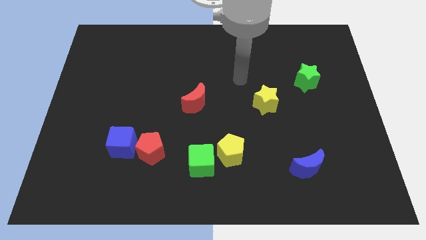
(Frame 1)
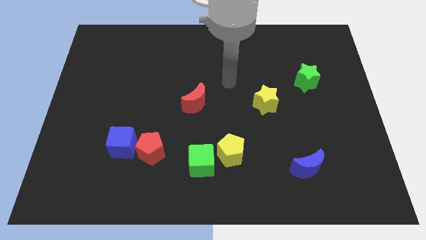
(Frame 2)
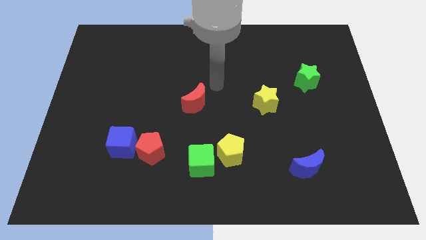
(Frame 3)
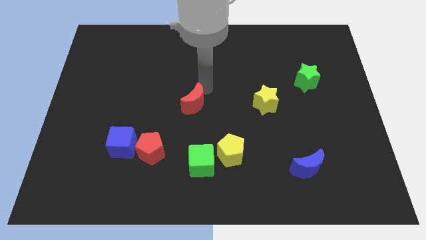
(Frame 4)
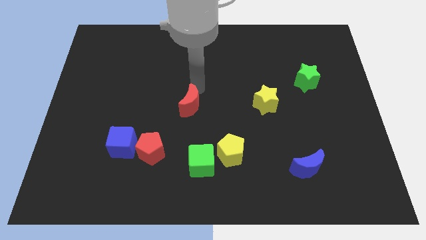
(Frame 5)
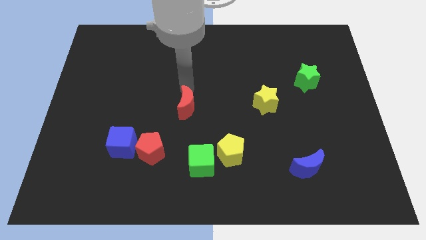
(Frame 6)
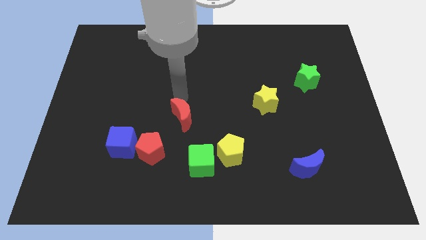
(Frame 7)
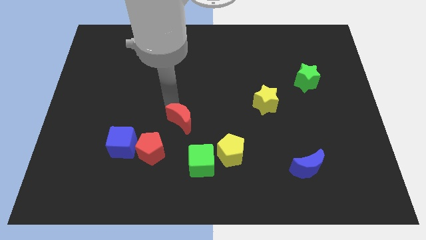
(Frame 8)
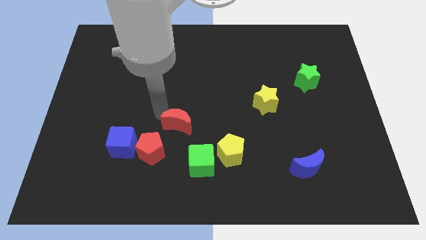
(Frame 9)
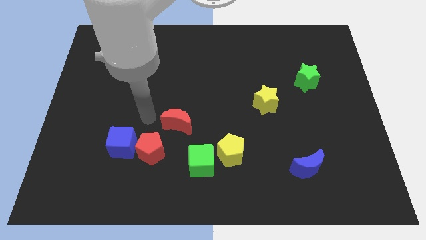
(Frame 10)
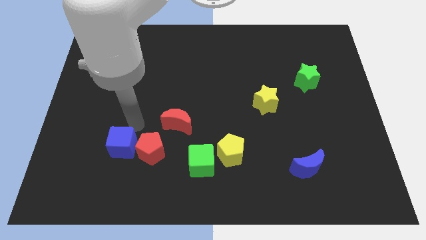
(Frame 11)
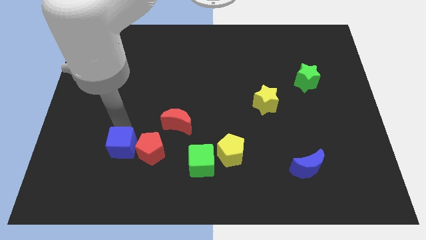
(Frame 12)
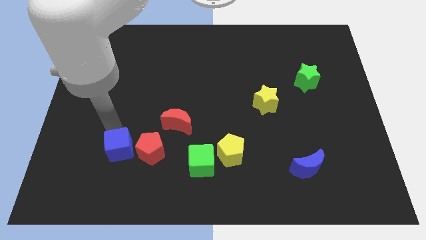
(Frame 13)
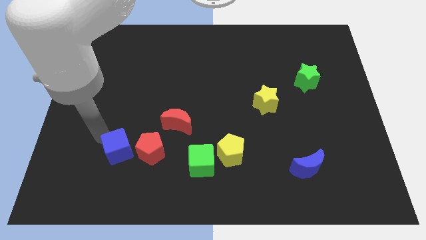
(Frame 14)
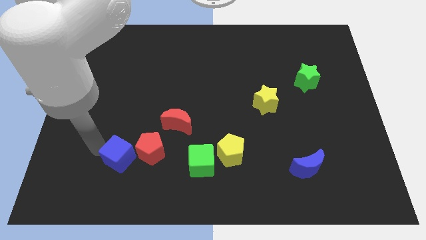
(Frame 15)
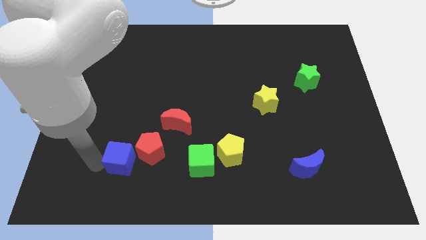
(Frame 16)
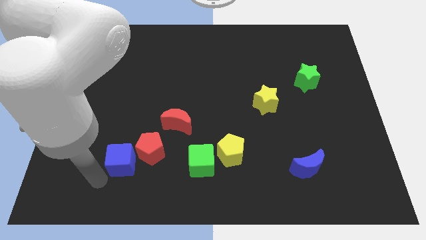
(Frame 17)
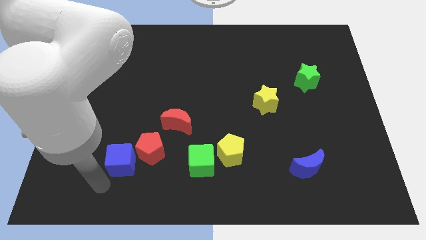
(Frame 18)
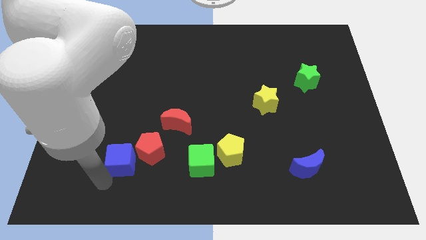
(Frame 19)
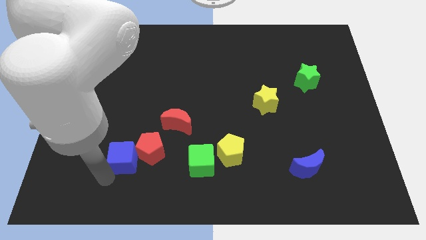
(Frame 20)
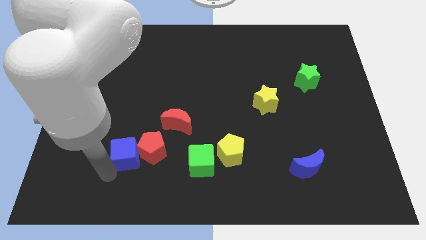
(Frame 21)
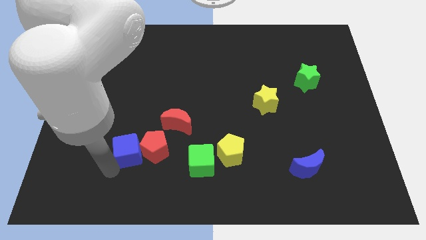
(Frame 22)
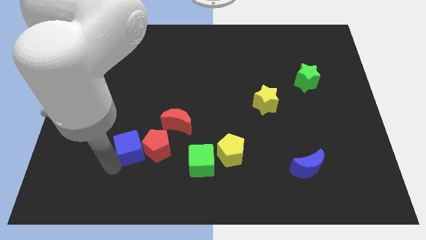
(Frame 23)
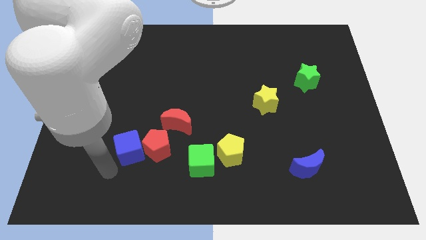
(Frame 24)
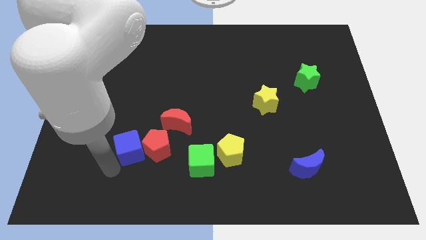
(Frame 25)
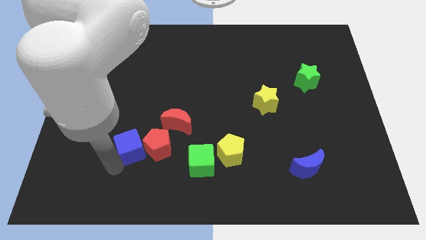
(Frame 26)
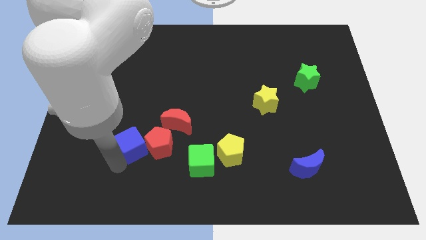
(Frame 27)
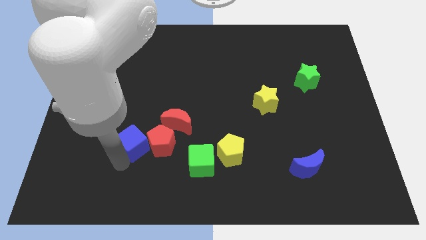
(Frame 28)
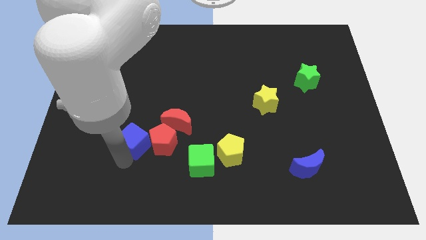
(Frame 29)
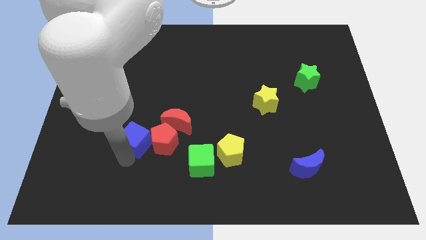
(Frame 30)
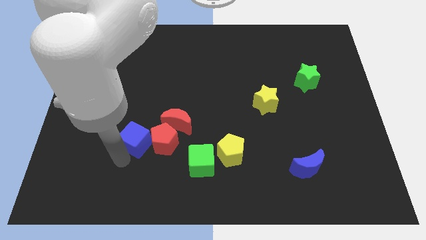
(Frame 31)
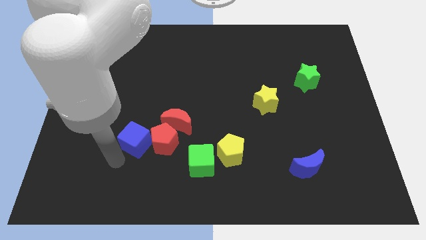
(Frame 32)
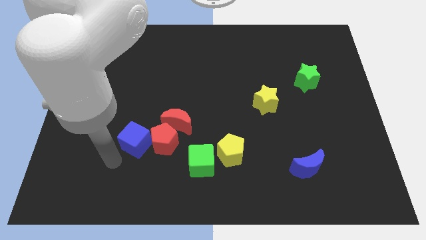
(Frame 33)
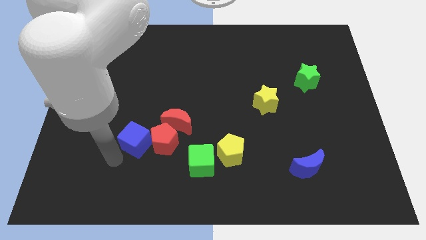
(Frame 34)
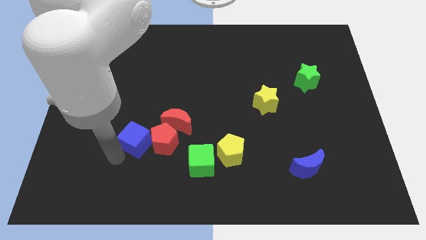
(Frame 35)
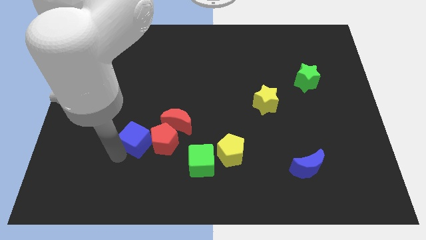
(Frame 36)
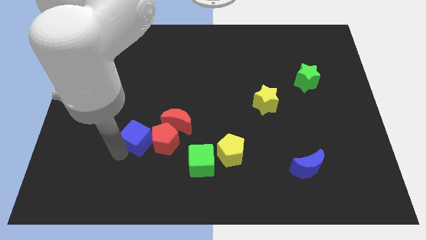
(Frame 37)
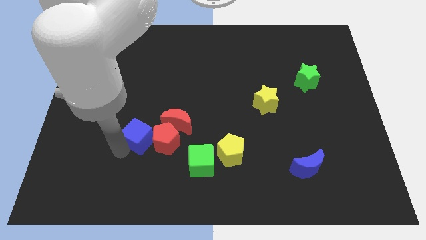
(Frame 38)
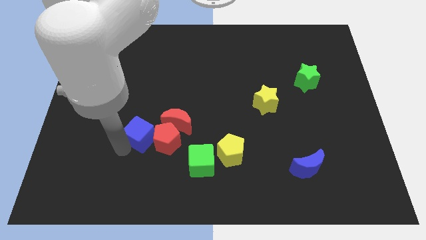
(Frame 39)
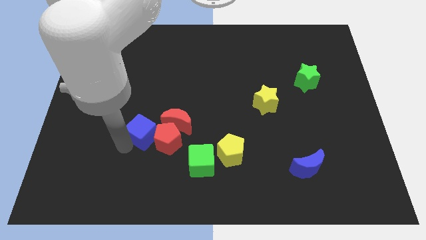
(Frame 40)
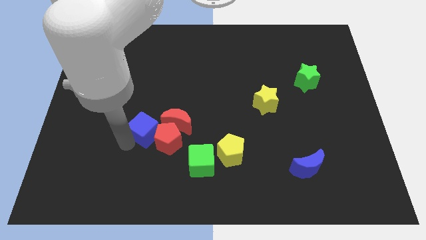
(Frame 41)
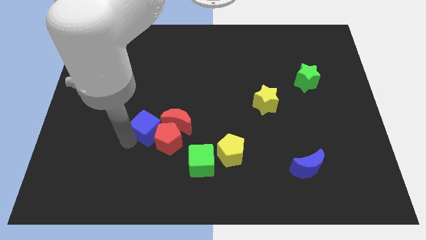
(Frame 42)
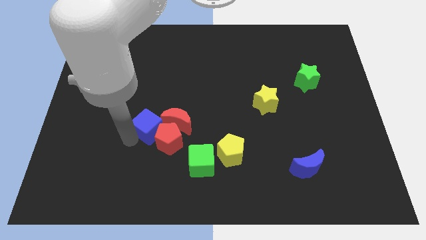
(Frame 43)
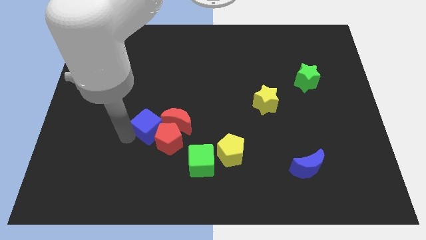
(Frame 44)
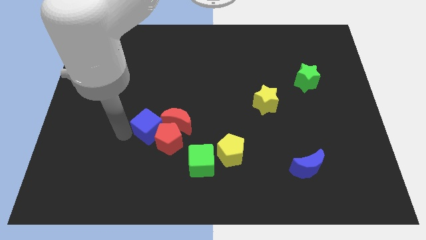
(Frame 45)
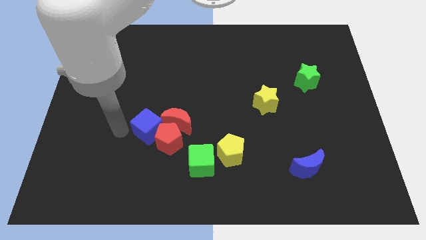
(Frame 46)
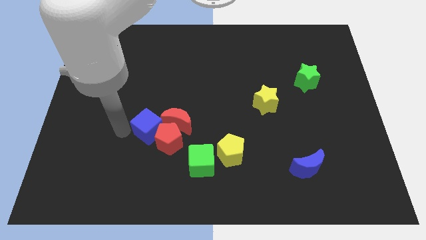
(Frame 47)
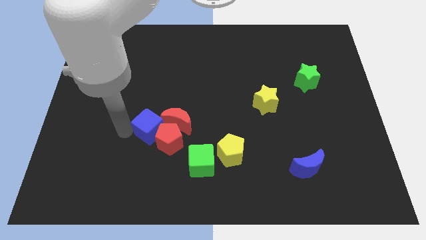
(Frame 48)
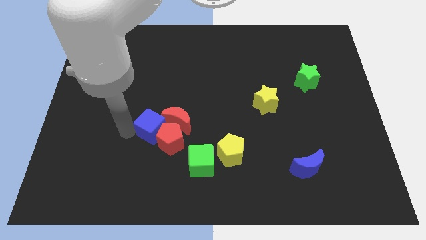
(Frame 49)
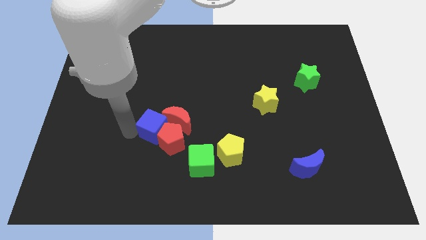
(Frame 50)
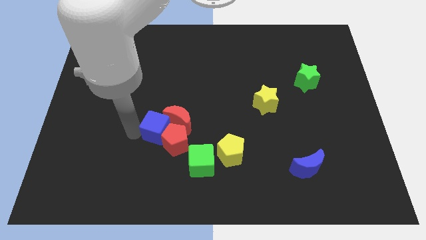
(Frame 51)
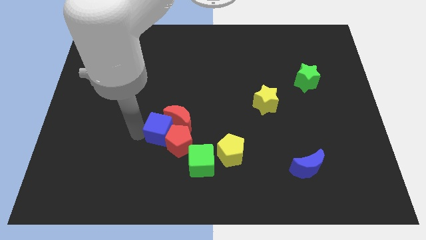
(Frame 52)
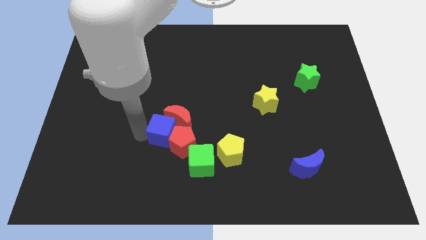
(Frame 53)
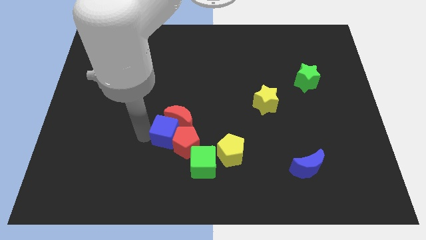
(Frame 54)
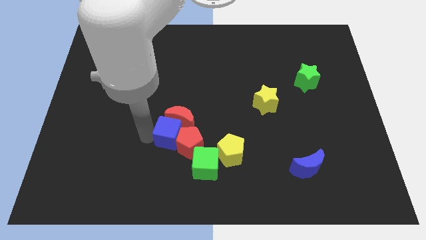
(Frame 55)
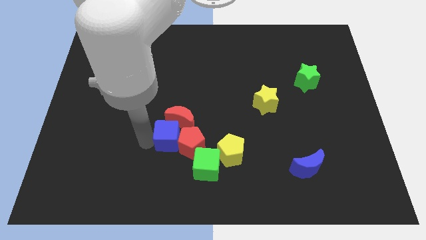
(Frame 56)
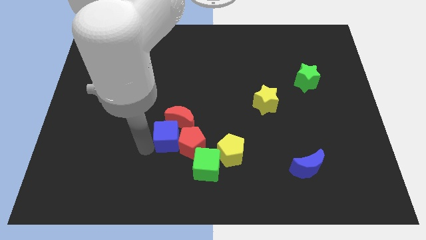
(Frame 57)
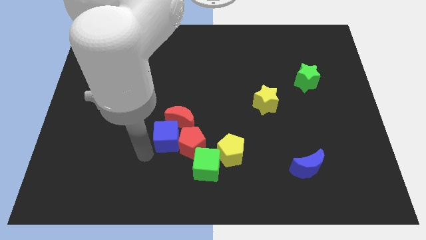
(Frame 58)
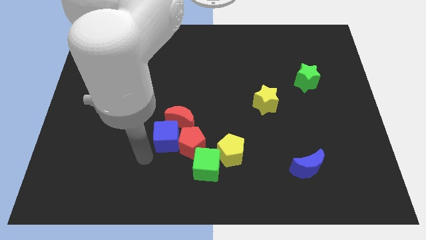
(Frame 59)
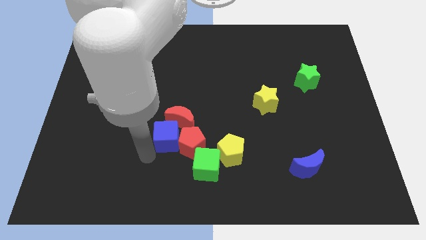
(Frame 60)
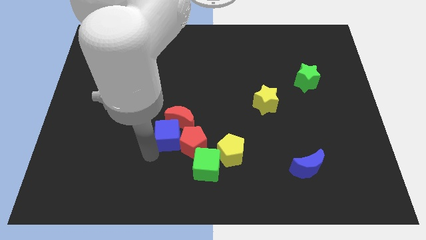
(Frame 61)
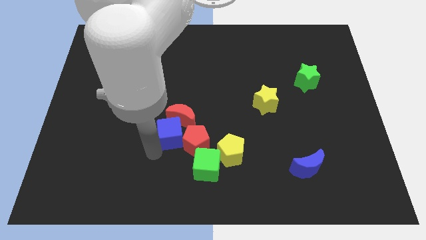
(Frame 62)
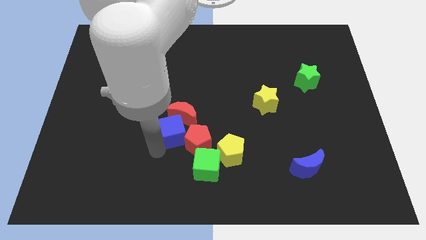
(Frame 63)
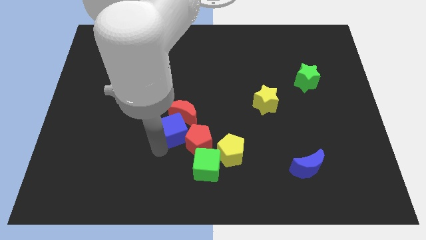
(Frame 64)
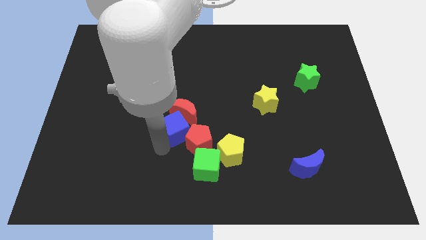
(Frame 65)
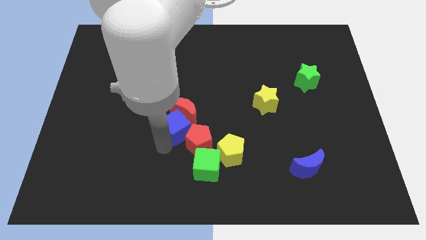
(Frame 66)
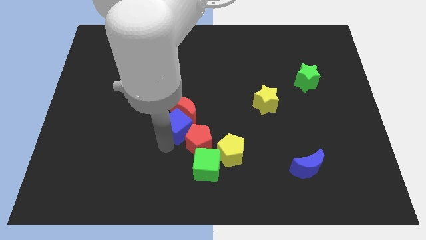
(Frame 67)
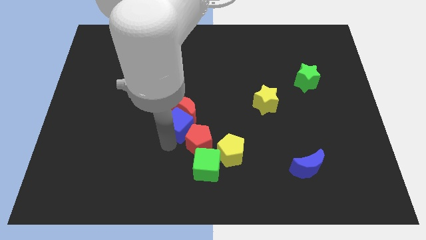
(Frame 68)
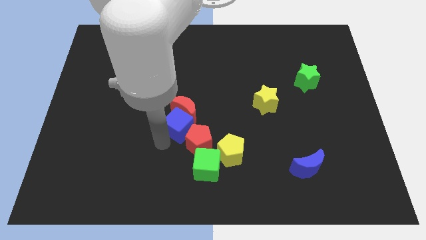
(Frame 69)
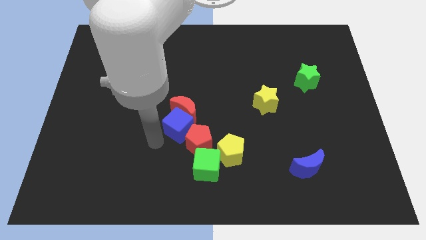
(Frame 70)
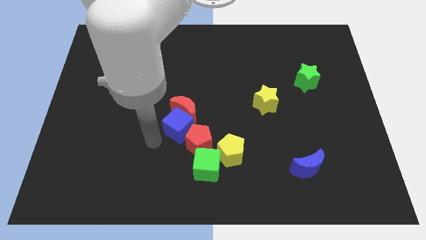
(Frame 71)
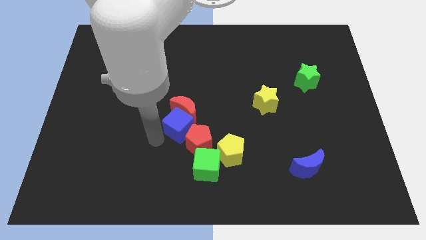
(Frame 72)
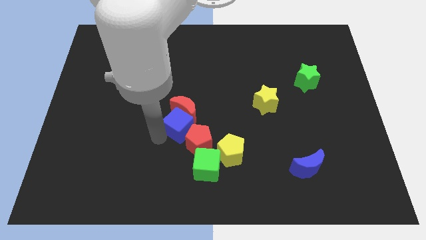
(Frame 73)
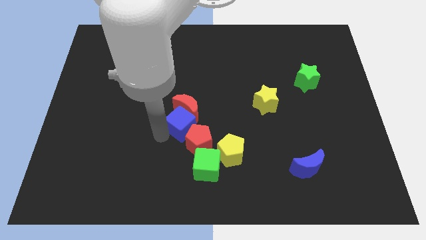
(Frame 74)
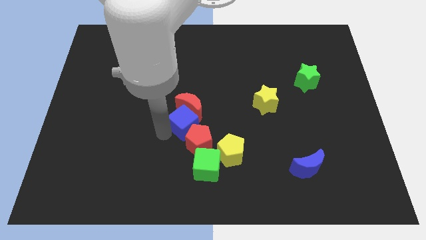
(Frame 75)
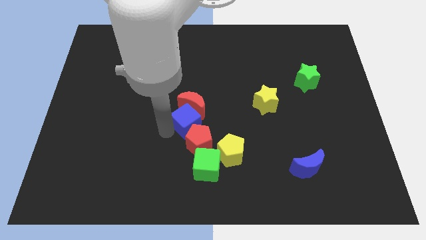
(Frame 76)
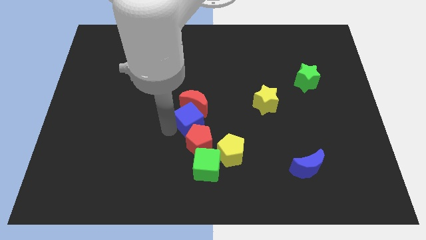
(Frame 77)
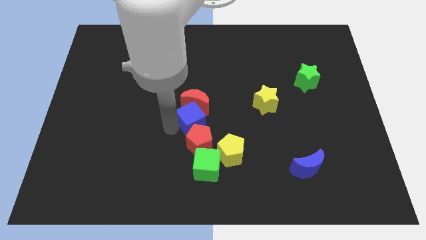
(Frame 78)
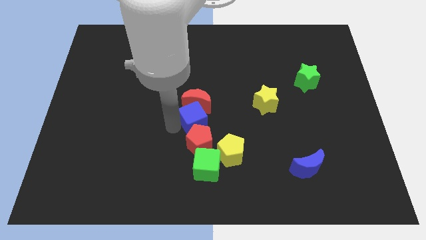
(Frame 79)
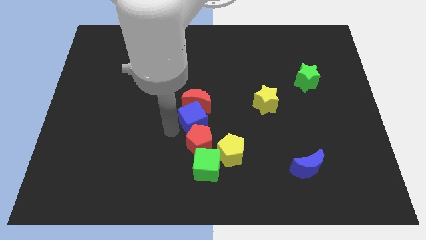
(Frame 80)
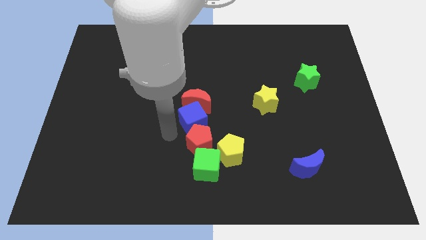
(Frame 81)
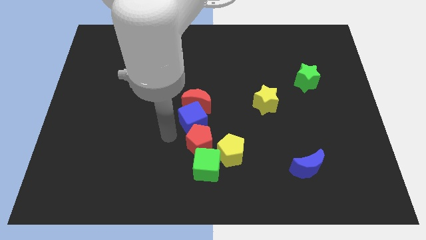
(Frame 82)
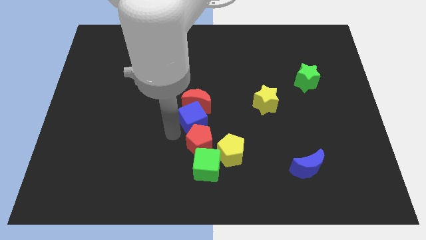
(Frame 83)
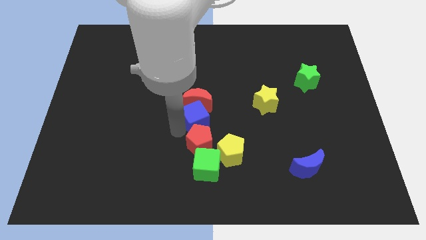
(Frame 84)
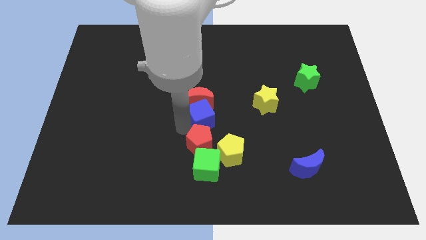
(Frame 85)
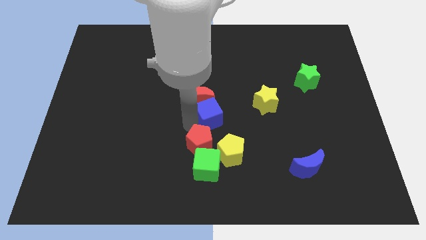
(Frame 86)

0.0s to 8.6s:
push the blue cube to the left side of the yellow star
